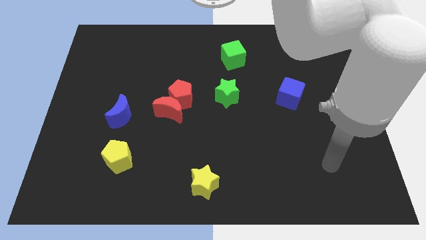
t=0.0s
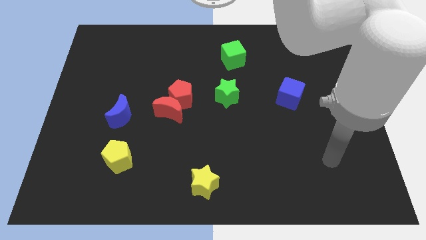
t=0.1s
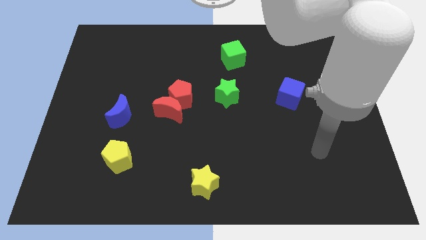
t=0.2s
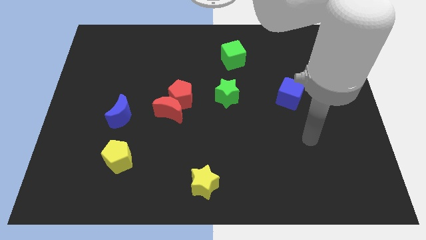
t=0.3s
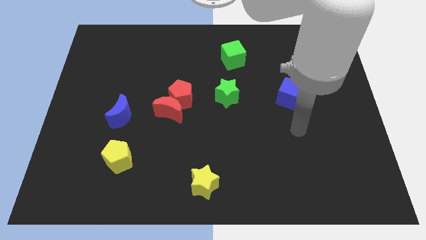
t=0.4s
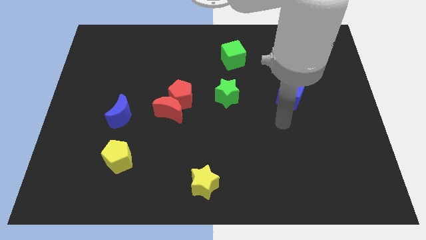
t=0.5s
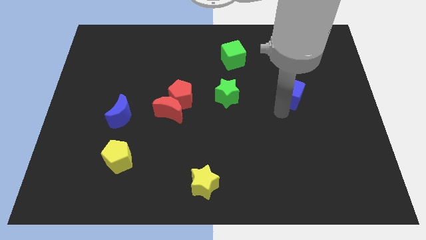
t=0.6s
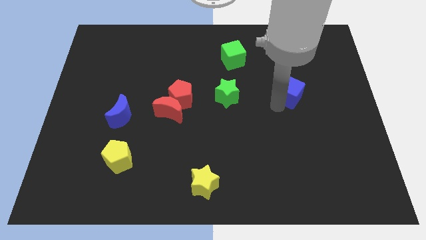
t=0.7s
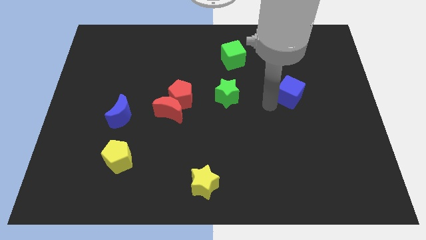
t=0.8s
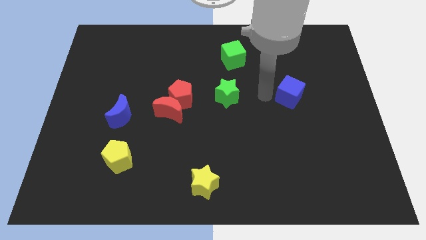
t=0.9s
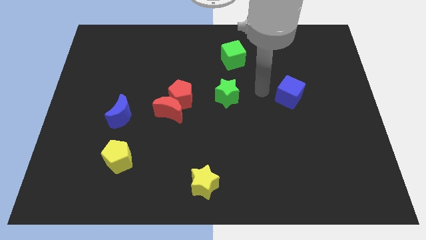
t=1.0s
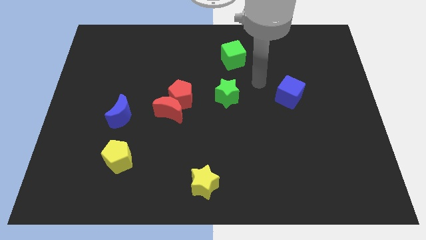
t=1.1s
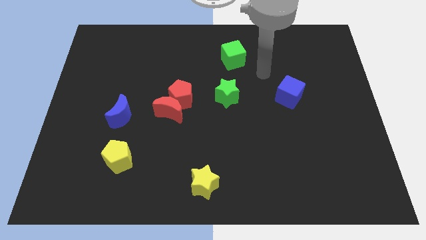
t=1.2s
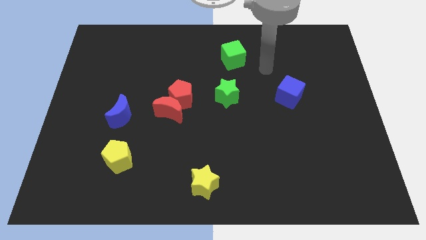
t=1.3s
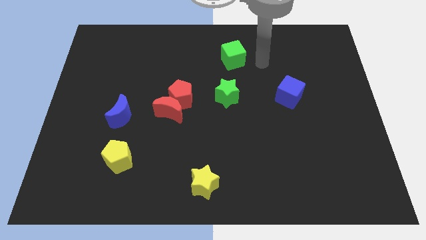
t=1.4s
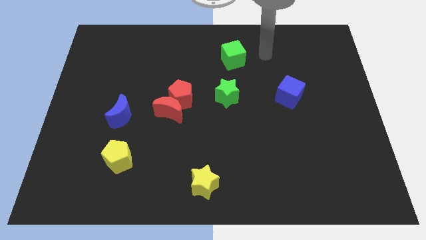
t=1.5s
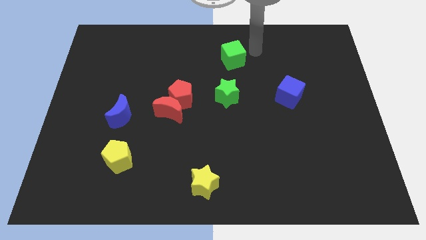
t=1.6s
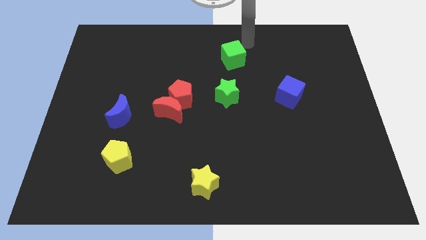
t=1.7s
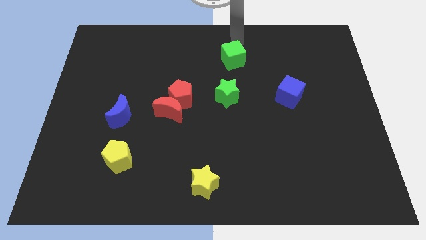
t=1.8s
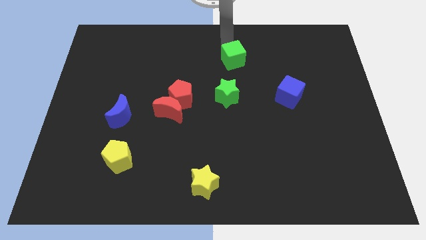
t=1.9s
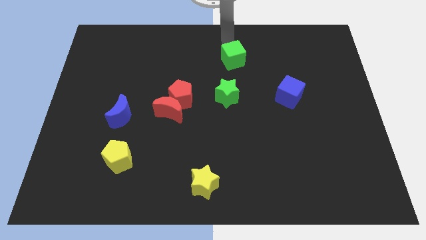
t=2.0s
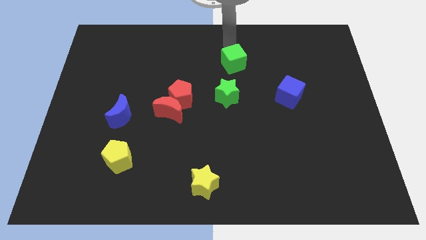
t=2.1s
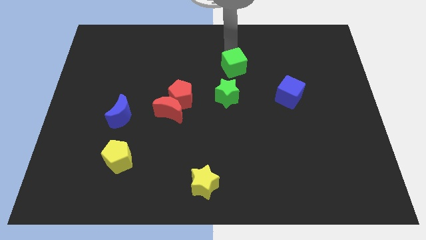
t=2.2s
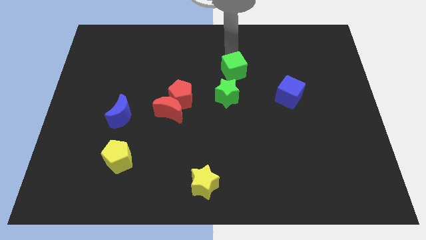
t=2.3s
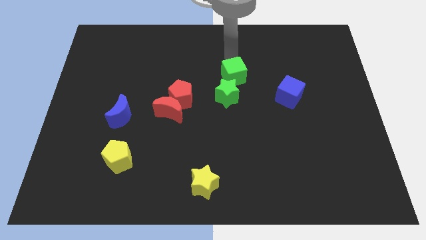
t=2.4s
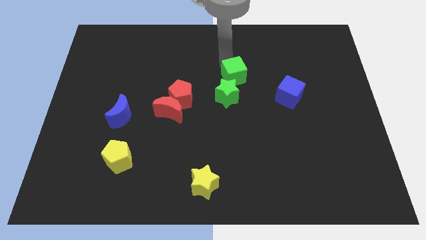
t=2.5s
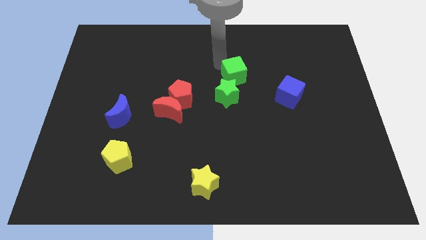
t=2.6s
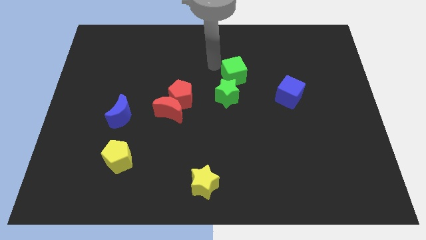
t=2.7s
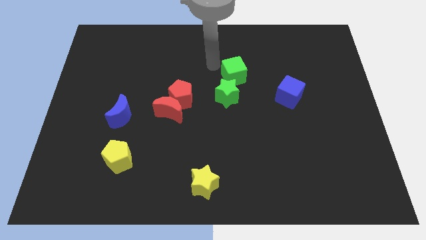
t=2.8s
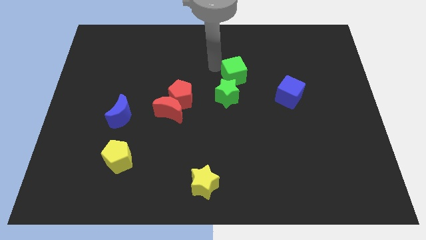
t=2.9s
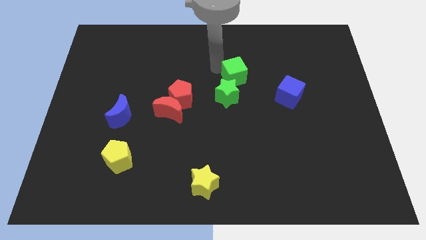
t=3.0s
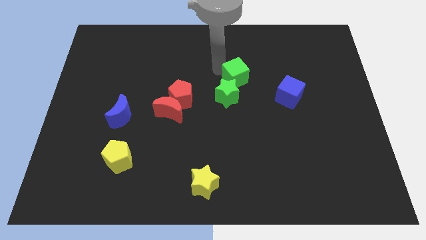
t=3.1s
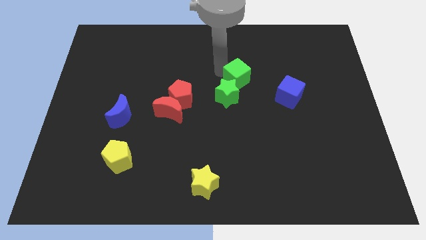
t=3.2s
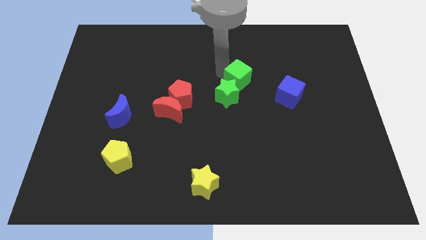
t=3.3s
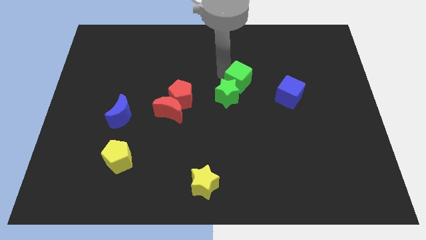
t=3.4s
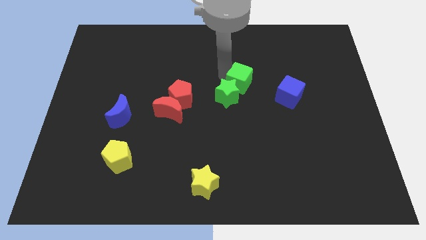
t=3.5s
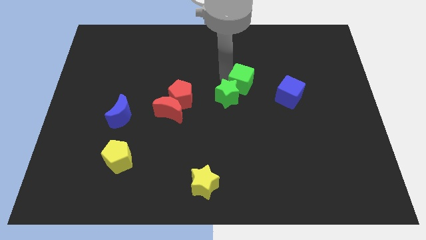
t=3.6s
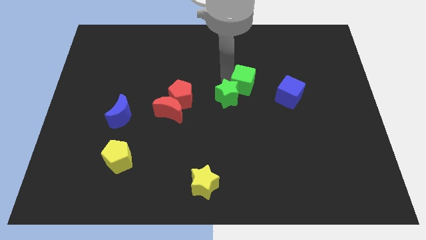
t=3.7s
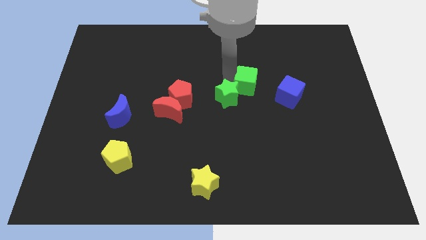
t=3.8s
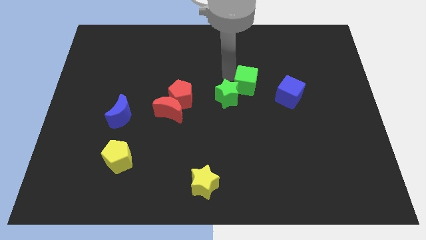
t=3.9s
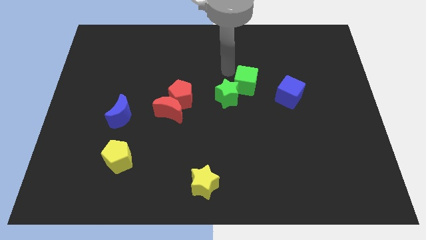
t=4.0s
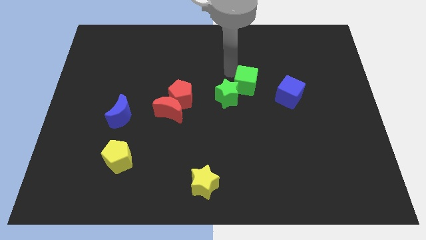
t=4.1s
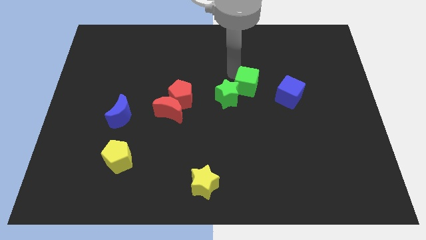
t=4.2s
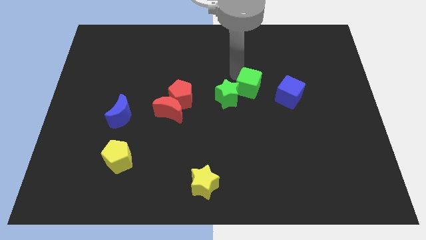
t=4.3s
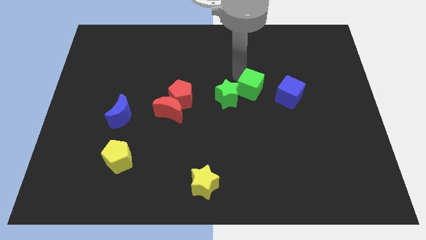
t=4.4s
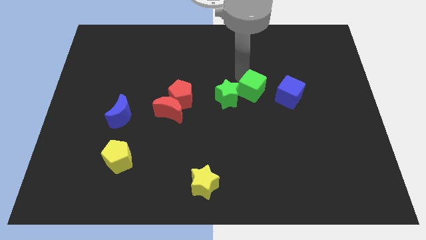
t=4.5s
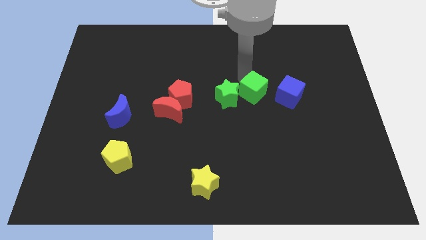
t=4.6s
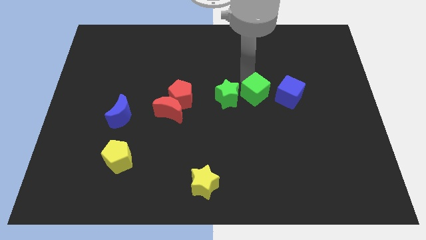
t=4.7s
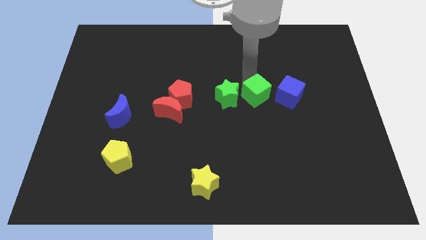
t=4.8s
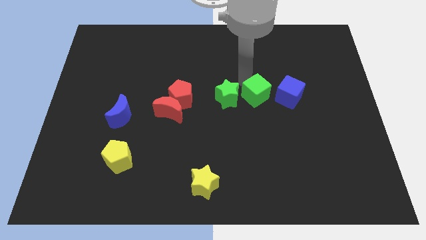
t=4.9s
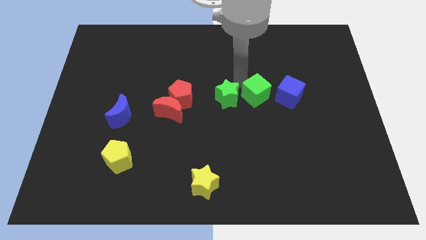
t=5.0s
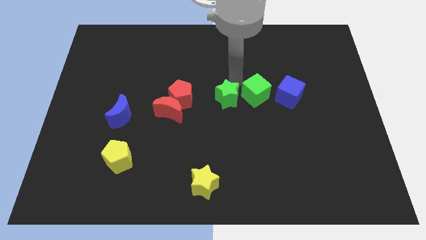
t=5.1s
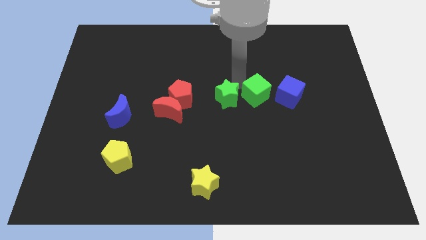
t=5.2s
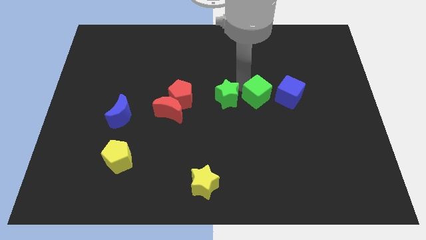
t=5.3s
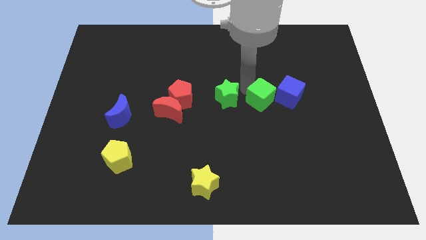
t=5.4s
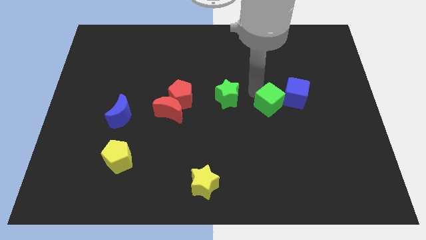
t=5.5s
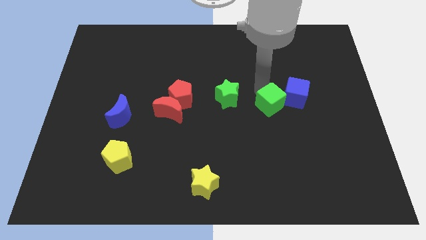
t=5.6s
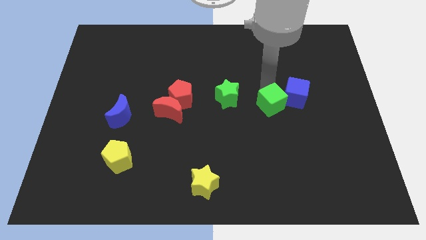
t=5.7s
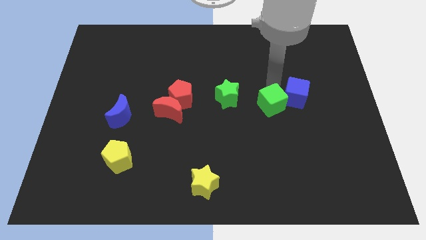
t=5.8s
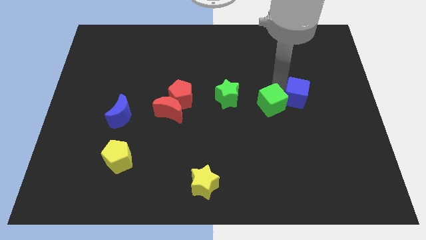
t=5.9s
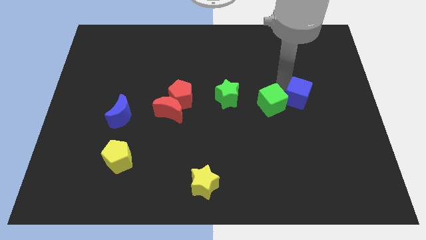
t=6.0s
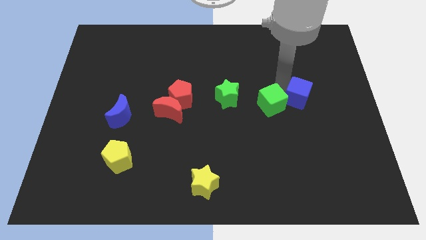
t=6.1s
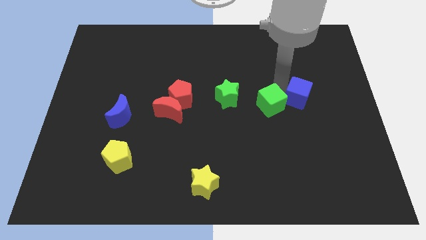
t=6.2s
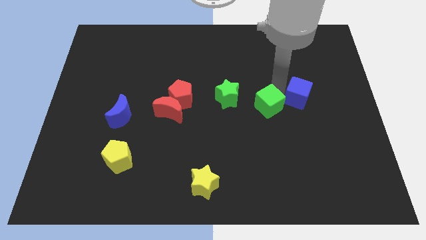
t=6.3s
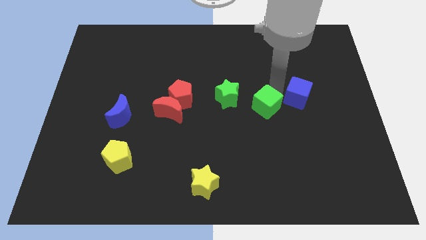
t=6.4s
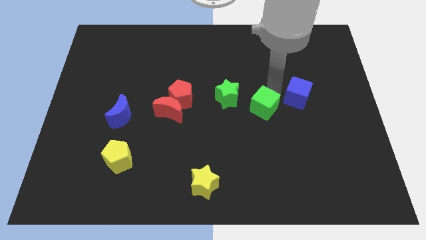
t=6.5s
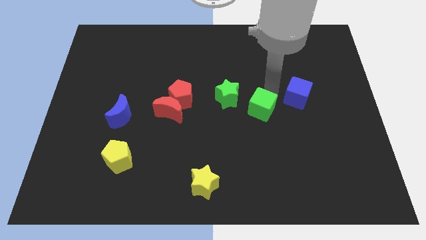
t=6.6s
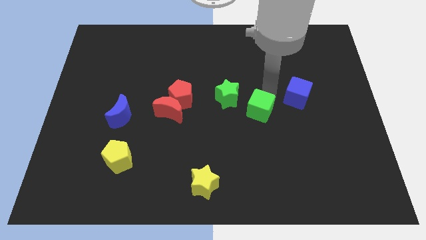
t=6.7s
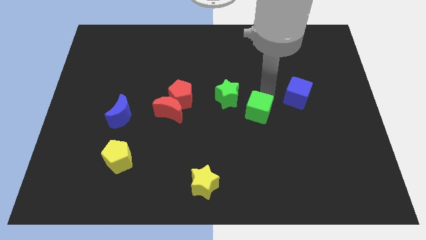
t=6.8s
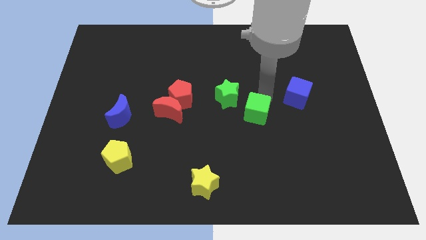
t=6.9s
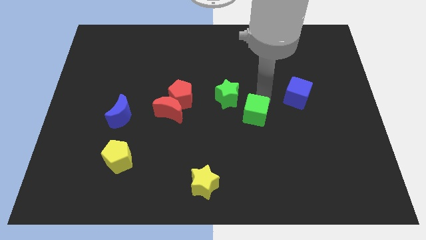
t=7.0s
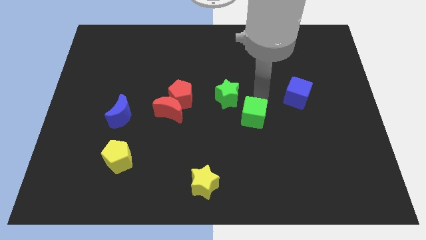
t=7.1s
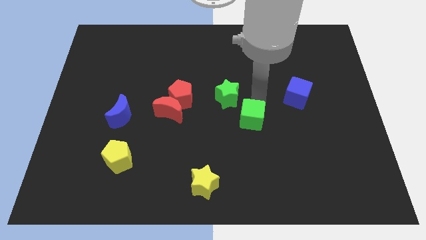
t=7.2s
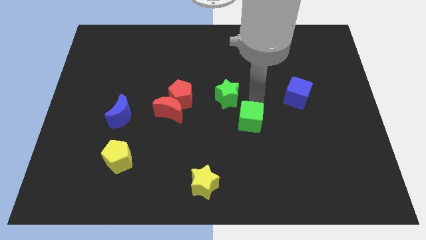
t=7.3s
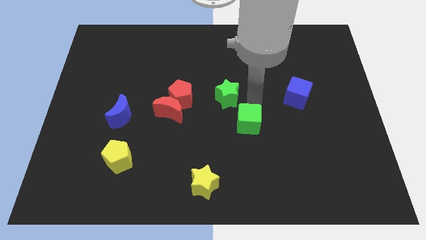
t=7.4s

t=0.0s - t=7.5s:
push the green cube down

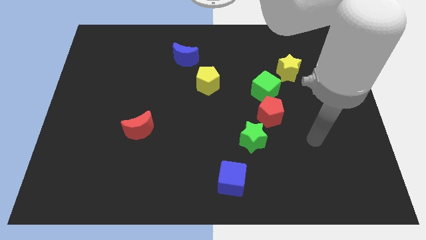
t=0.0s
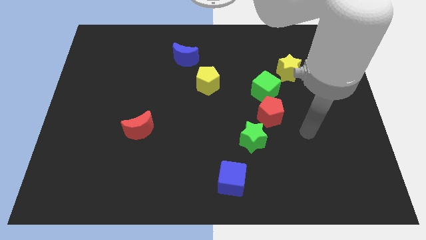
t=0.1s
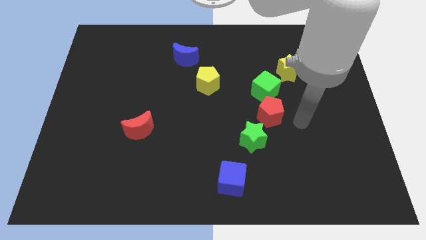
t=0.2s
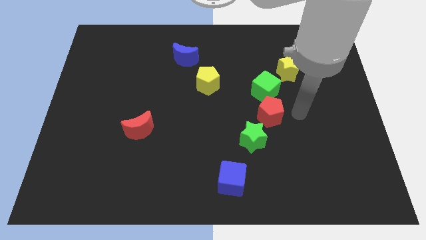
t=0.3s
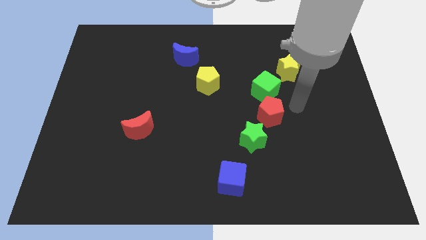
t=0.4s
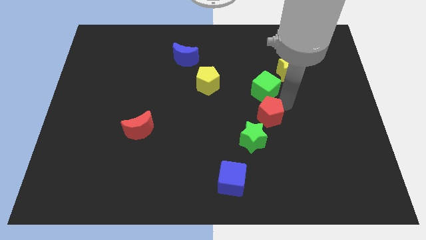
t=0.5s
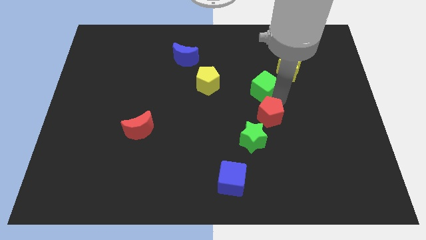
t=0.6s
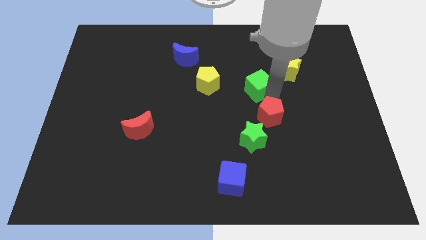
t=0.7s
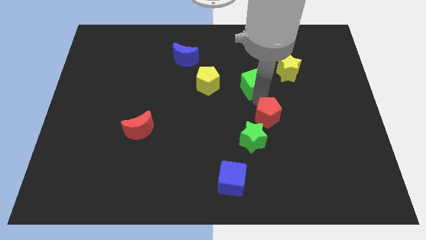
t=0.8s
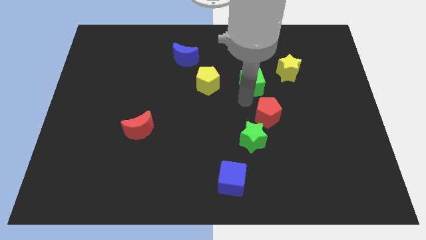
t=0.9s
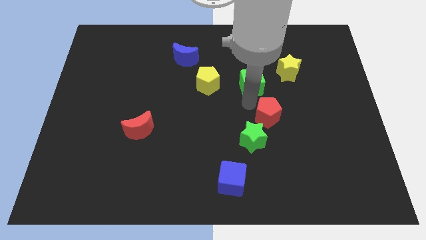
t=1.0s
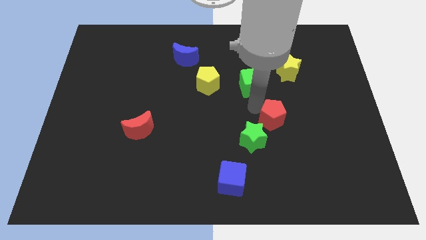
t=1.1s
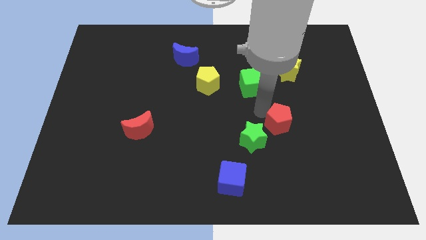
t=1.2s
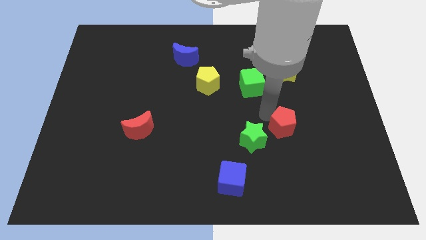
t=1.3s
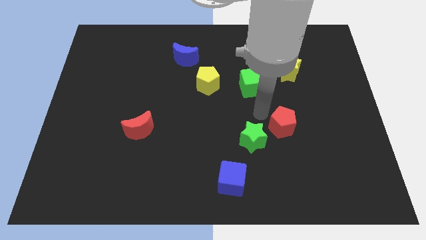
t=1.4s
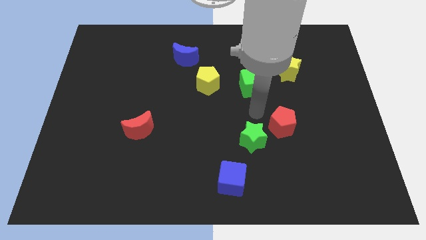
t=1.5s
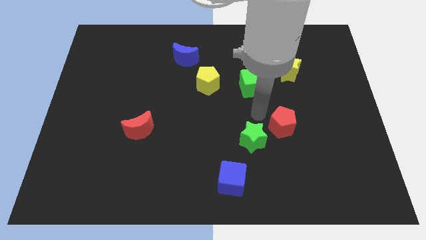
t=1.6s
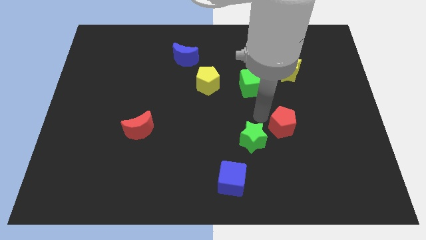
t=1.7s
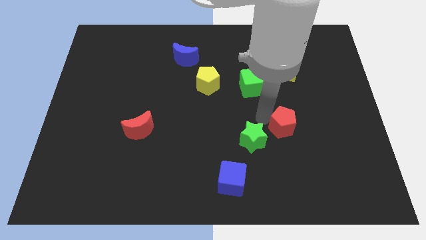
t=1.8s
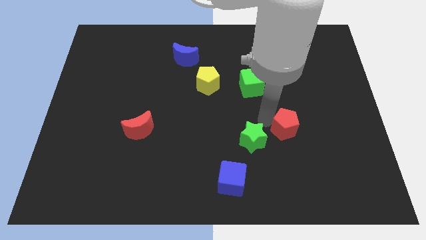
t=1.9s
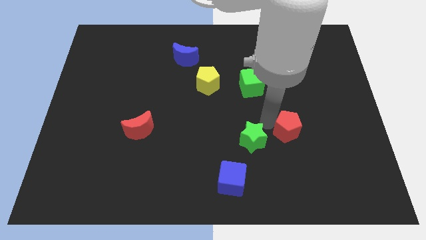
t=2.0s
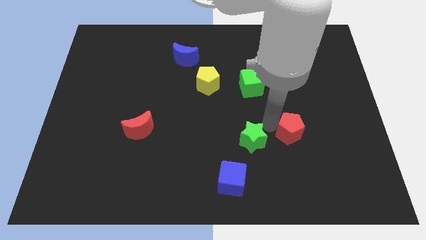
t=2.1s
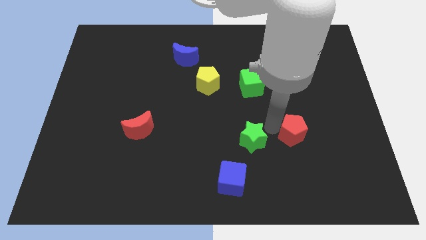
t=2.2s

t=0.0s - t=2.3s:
push the red pentagon slightly down and right diagonally
